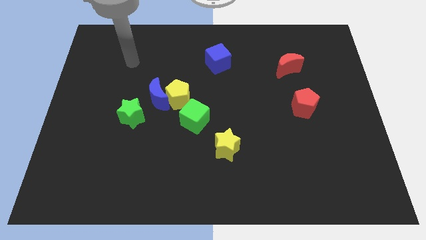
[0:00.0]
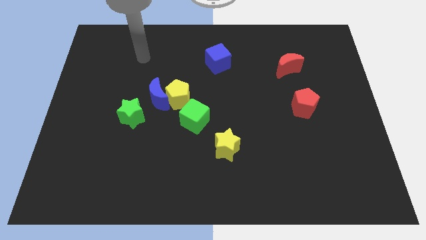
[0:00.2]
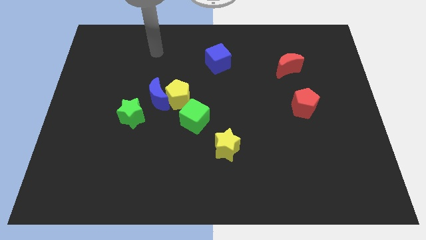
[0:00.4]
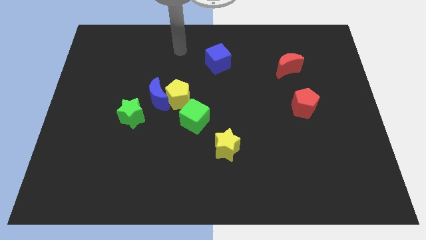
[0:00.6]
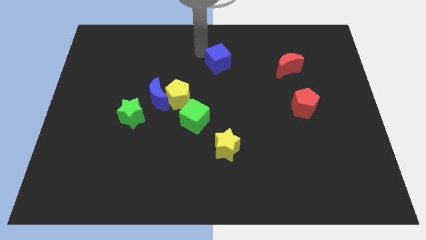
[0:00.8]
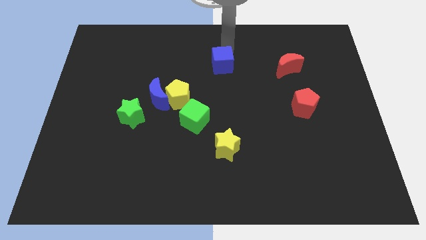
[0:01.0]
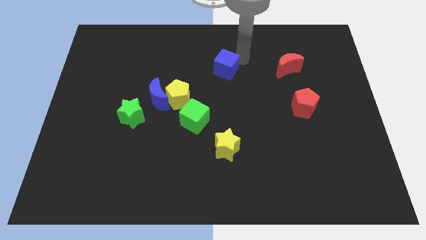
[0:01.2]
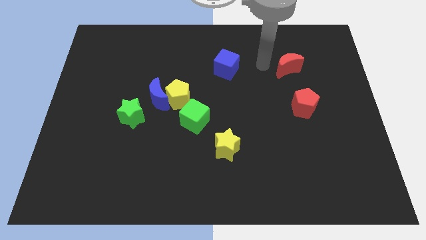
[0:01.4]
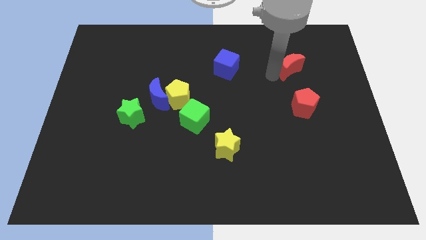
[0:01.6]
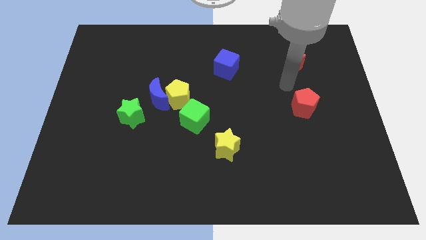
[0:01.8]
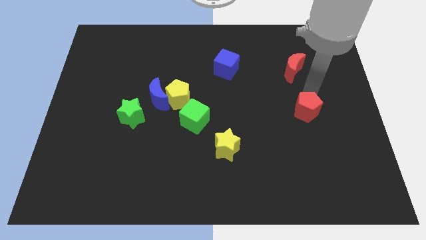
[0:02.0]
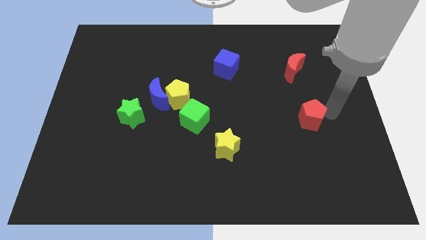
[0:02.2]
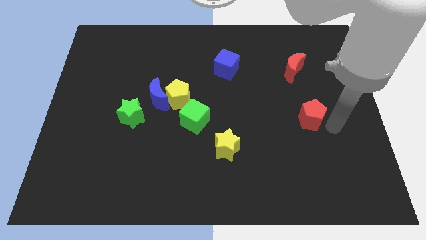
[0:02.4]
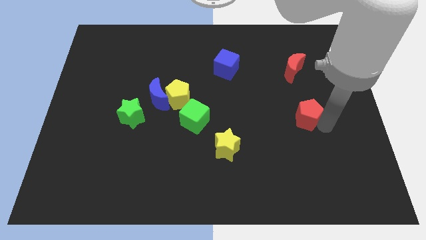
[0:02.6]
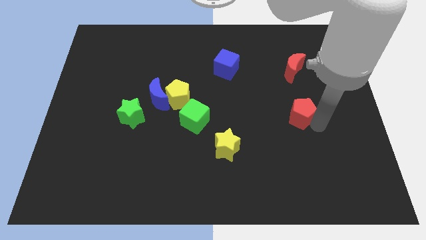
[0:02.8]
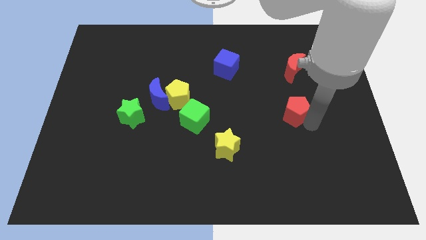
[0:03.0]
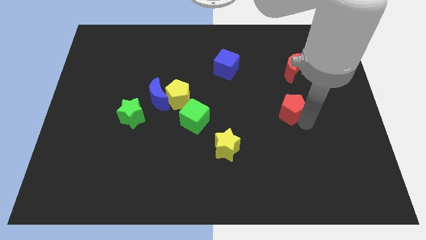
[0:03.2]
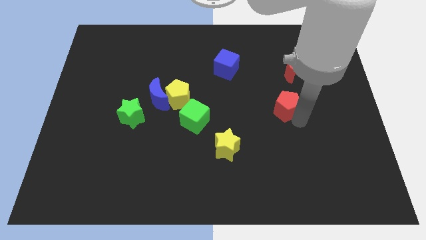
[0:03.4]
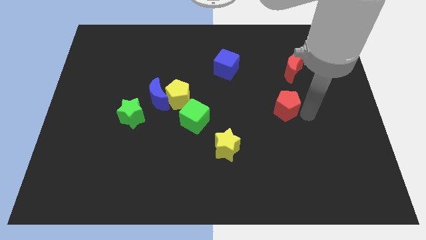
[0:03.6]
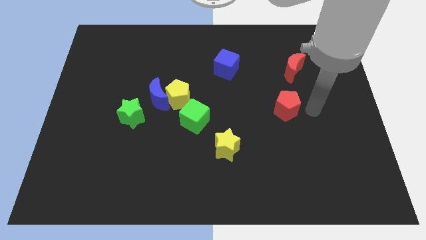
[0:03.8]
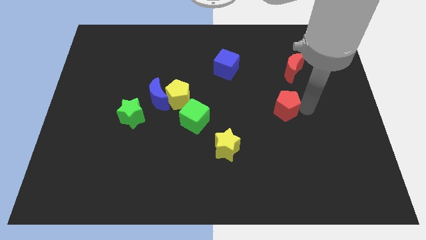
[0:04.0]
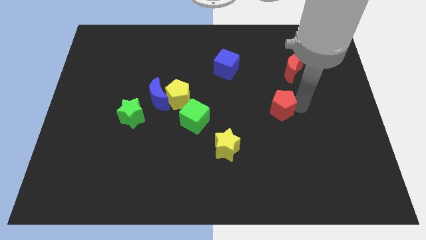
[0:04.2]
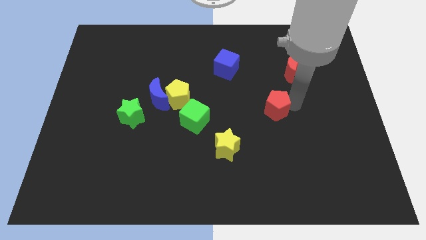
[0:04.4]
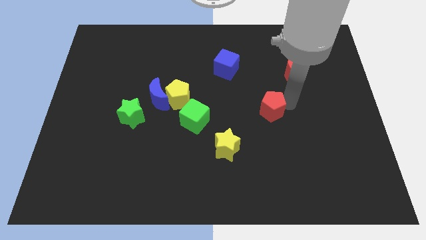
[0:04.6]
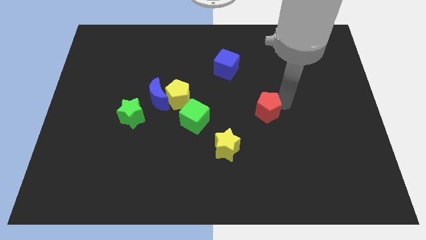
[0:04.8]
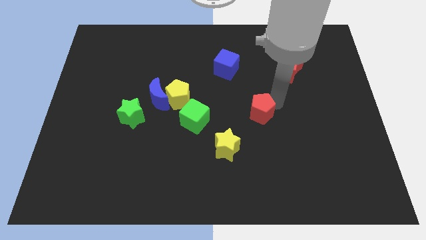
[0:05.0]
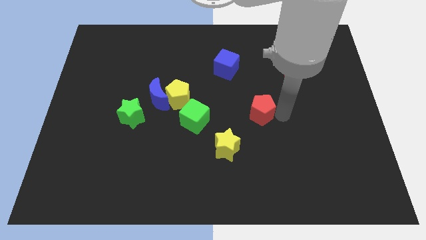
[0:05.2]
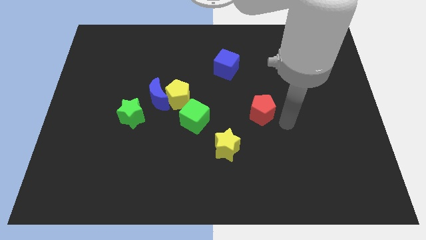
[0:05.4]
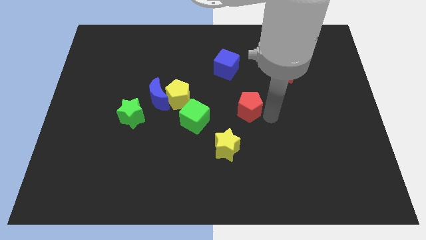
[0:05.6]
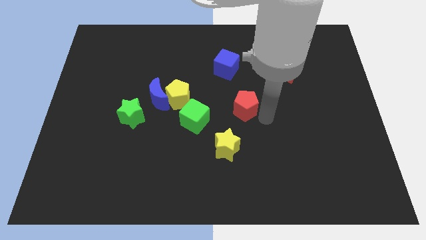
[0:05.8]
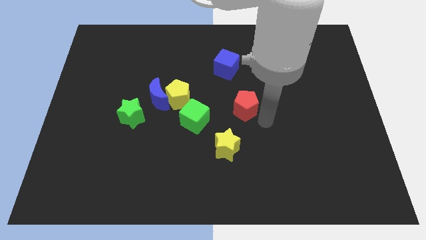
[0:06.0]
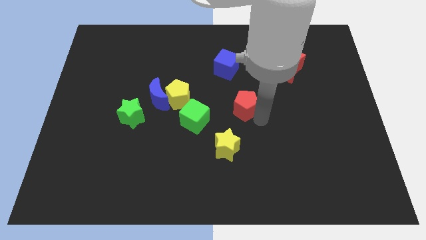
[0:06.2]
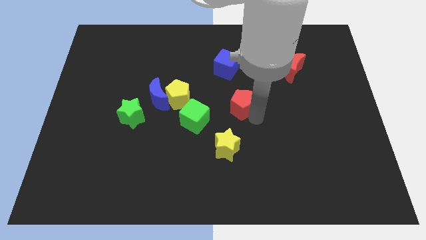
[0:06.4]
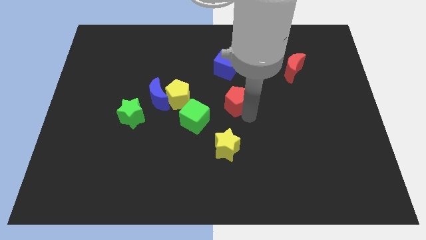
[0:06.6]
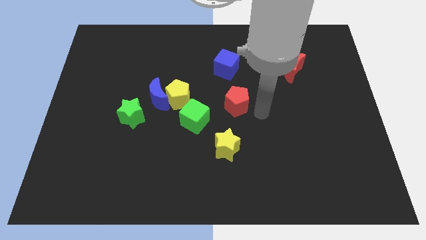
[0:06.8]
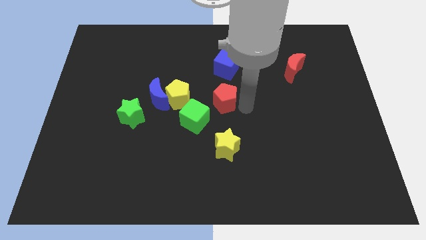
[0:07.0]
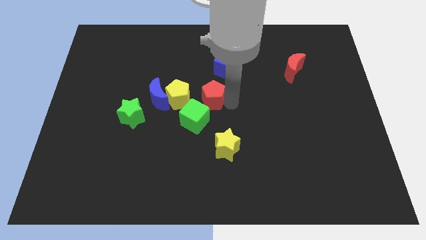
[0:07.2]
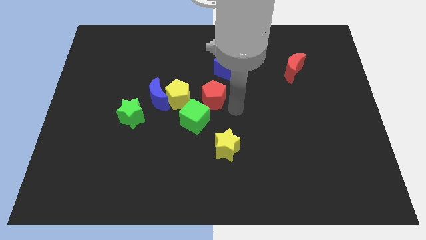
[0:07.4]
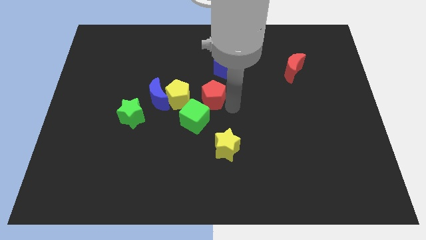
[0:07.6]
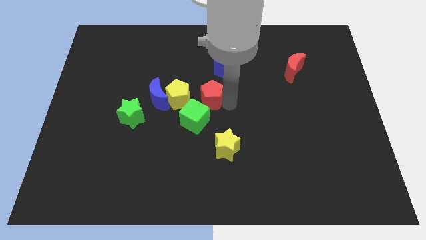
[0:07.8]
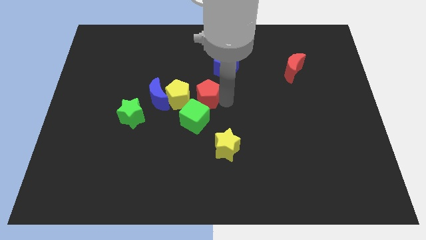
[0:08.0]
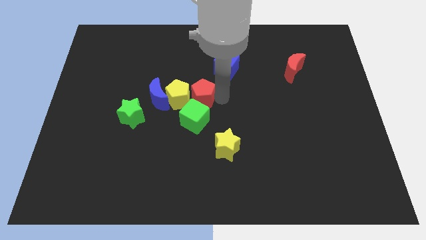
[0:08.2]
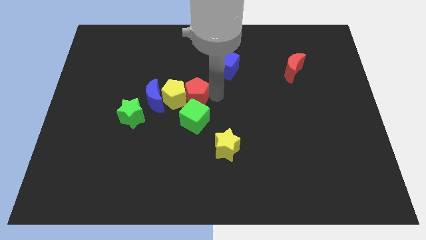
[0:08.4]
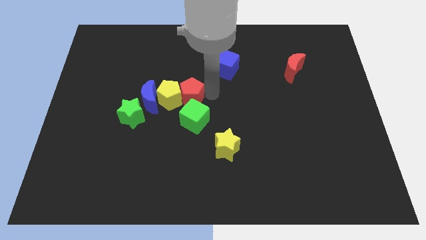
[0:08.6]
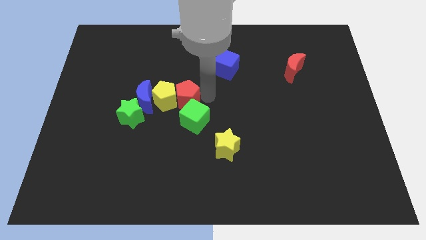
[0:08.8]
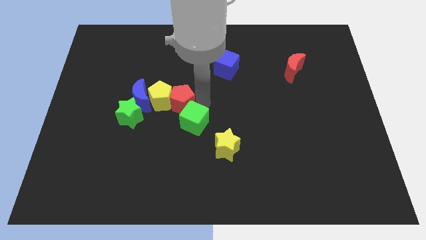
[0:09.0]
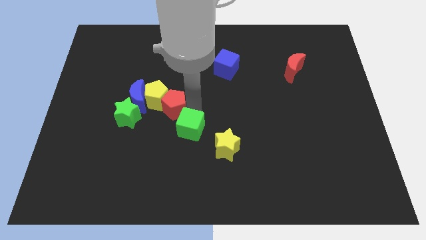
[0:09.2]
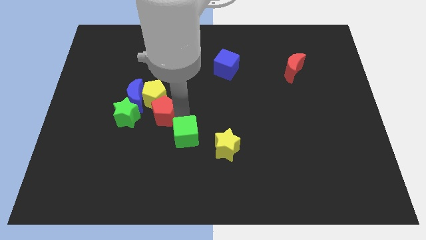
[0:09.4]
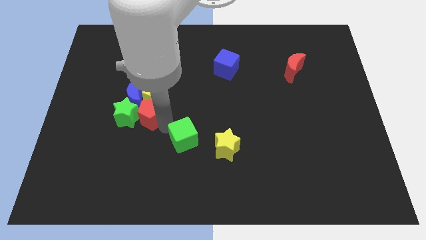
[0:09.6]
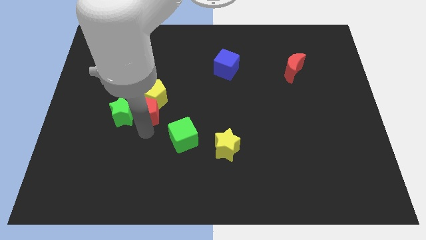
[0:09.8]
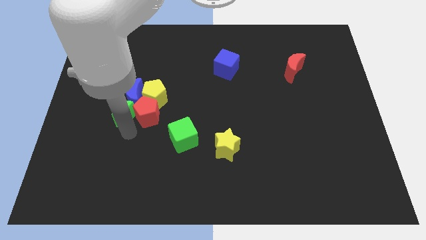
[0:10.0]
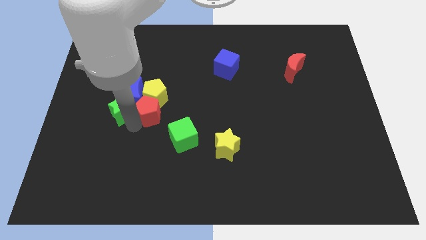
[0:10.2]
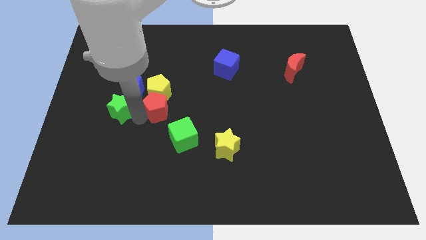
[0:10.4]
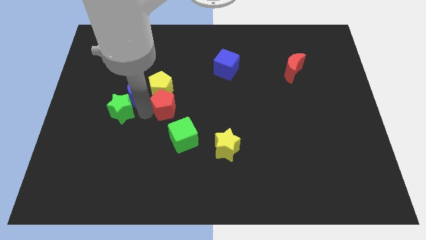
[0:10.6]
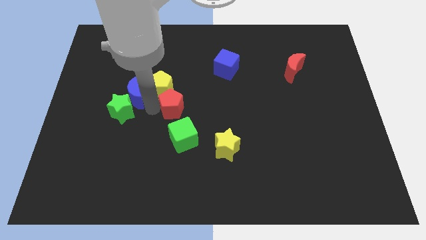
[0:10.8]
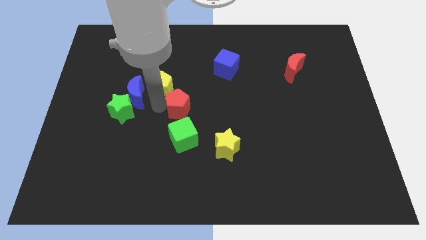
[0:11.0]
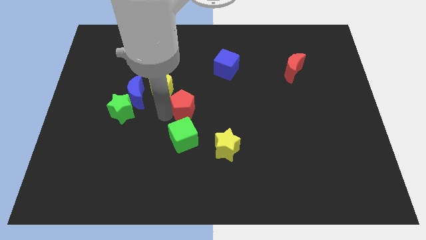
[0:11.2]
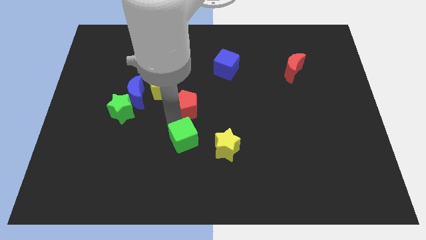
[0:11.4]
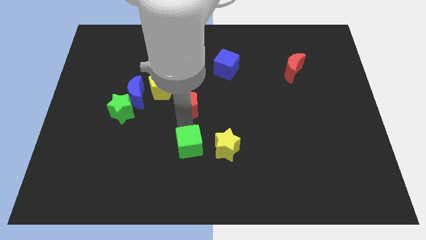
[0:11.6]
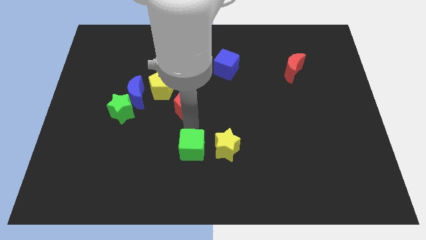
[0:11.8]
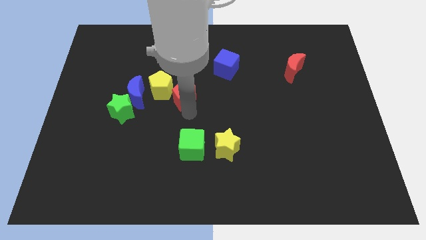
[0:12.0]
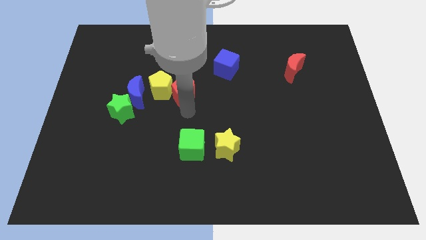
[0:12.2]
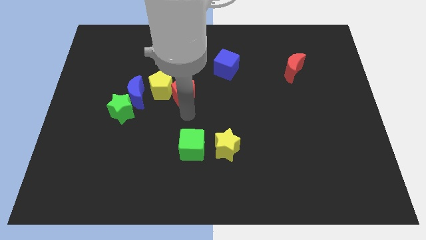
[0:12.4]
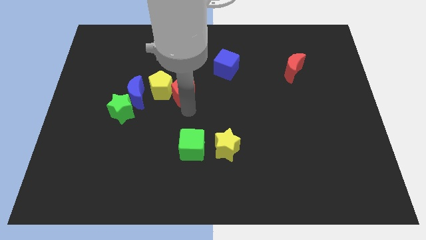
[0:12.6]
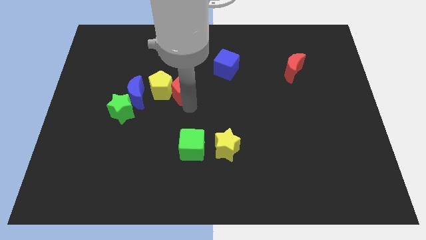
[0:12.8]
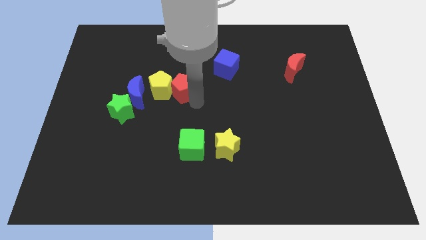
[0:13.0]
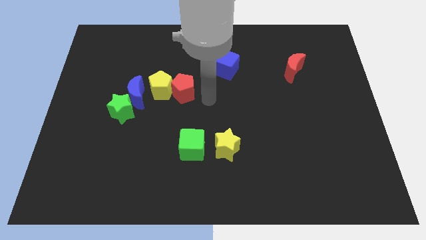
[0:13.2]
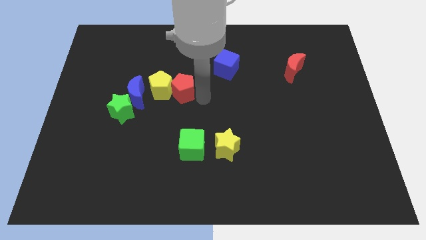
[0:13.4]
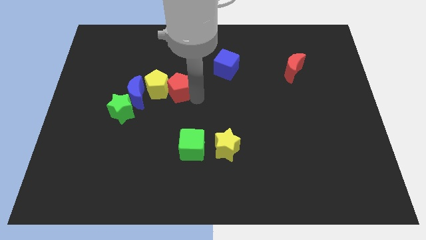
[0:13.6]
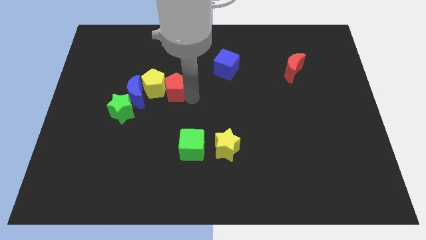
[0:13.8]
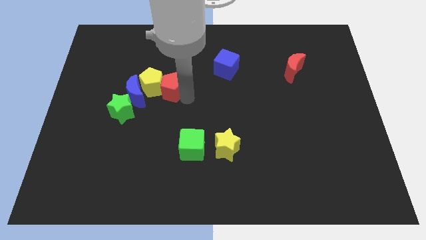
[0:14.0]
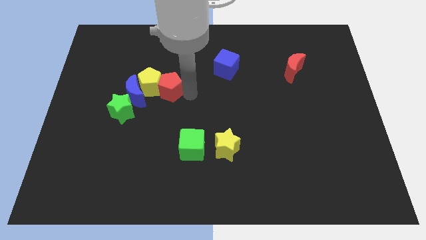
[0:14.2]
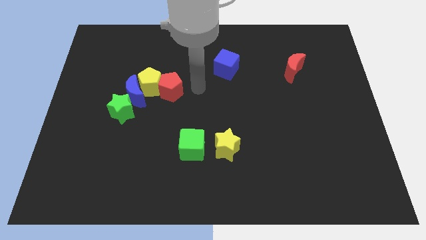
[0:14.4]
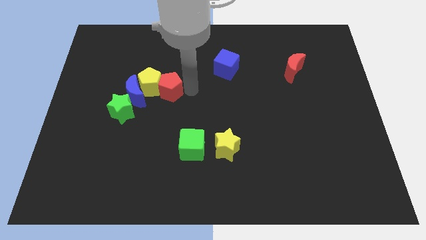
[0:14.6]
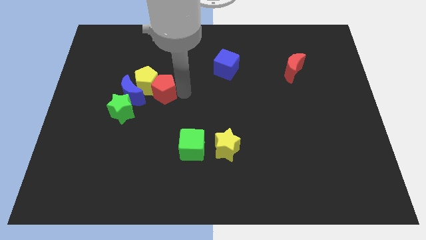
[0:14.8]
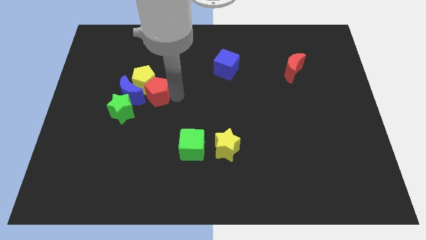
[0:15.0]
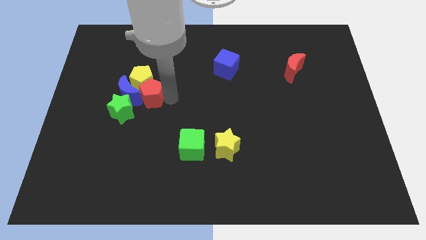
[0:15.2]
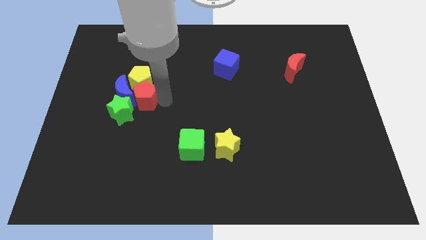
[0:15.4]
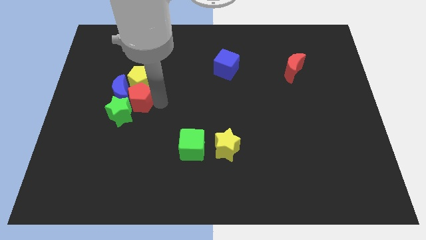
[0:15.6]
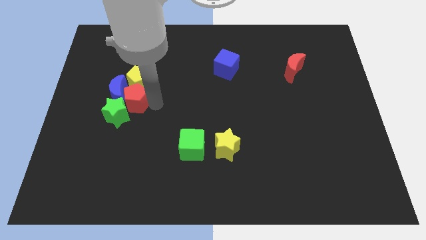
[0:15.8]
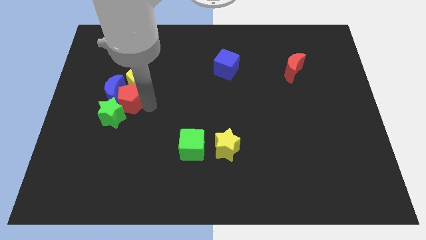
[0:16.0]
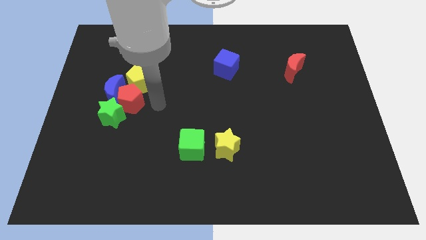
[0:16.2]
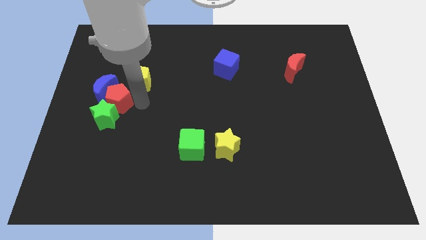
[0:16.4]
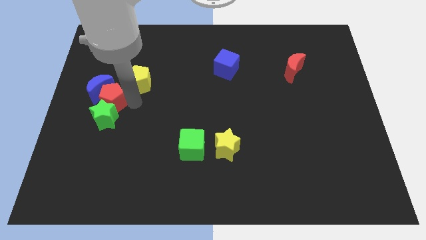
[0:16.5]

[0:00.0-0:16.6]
put the red pentagon to the top left of the green star
